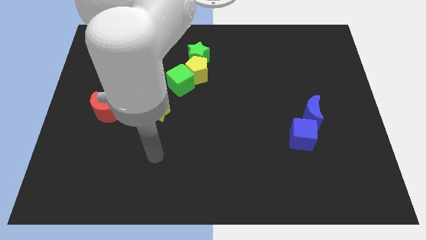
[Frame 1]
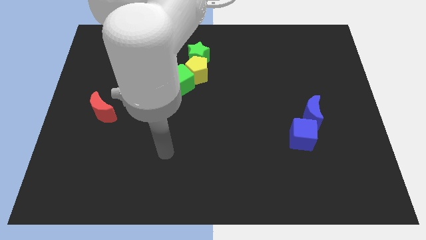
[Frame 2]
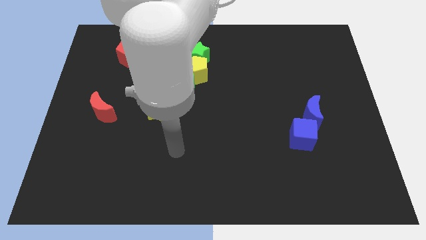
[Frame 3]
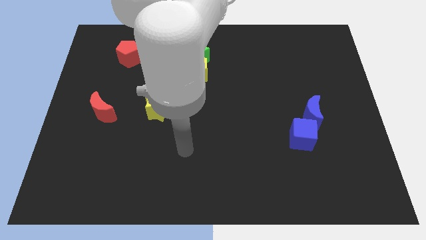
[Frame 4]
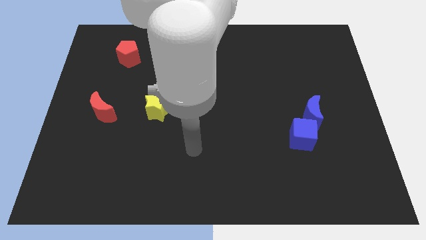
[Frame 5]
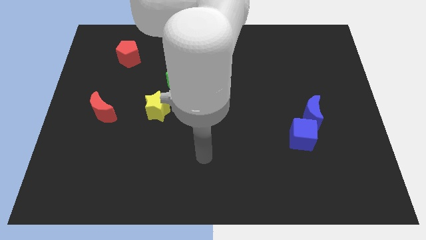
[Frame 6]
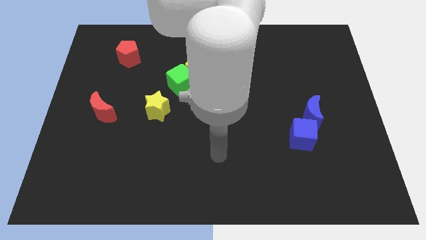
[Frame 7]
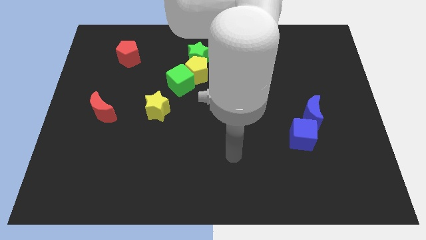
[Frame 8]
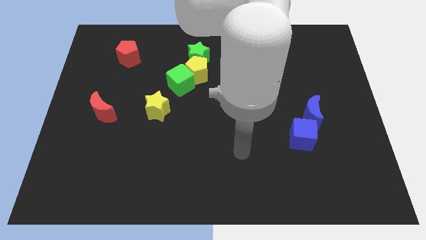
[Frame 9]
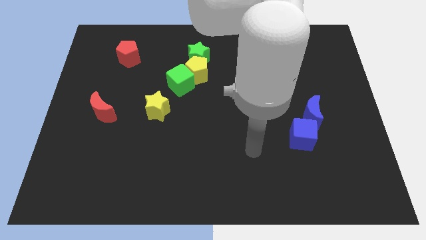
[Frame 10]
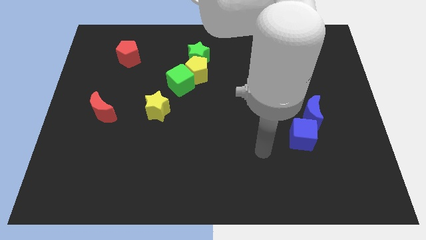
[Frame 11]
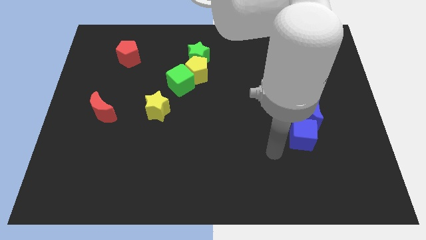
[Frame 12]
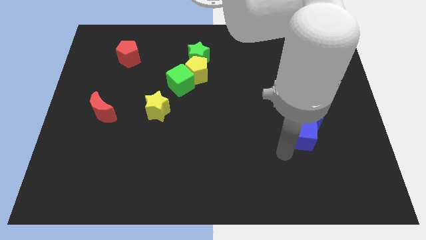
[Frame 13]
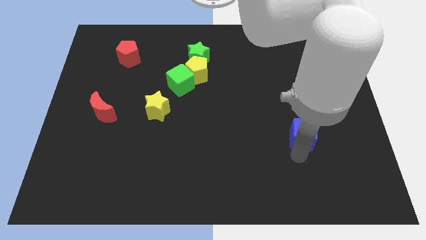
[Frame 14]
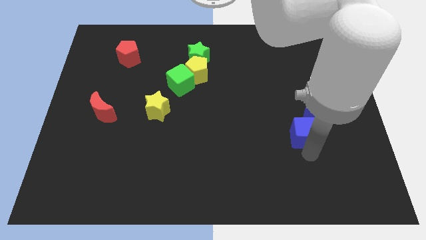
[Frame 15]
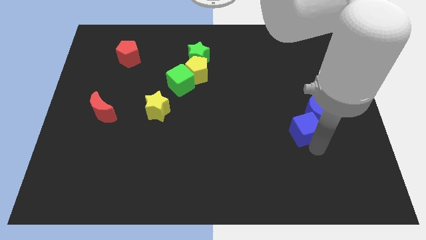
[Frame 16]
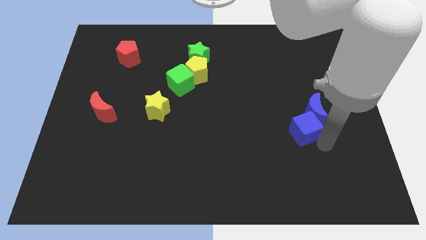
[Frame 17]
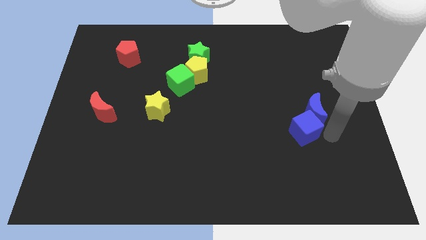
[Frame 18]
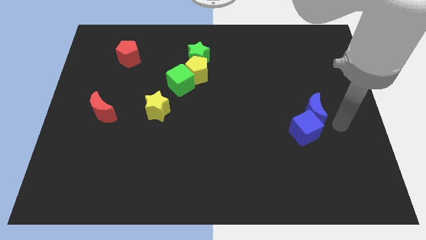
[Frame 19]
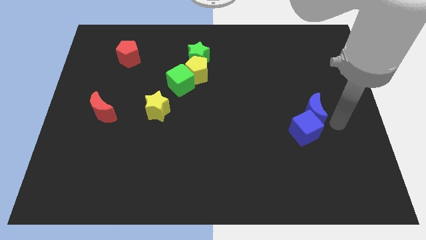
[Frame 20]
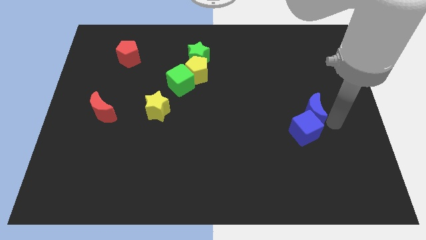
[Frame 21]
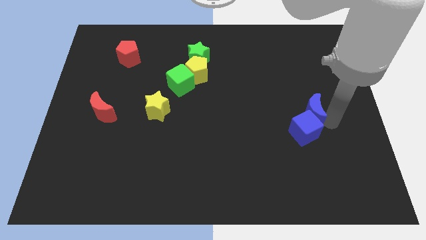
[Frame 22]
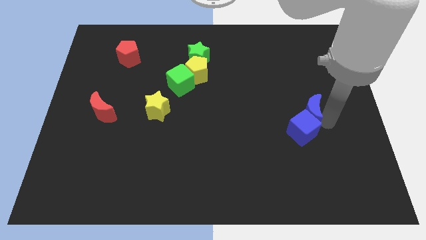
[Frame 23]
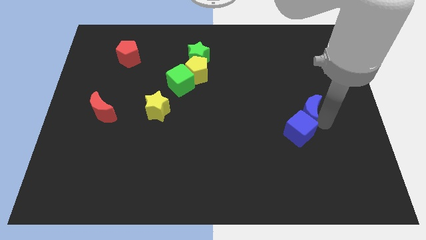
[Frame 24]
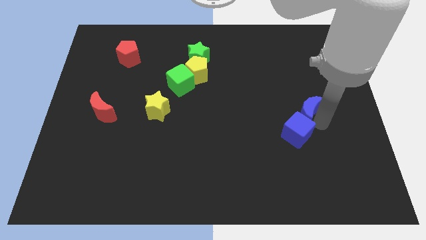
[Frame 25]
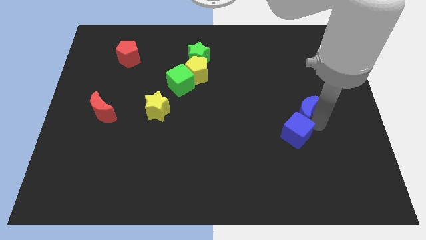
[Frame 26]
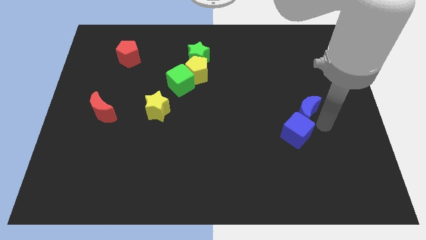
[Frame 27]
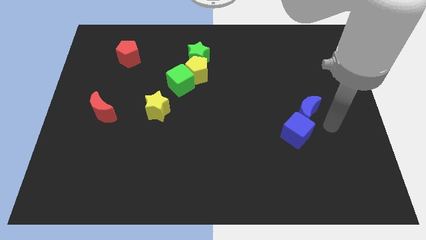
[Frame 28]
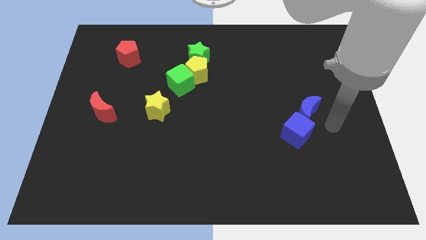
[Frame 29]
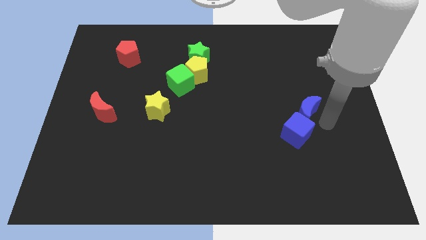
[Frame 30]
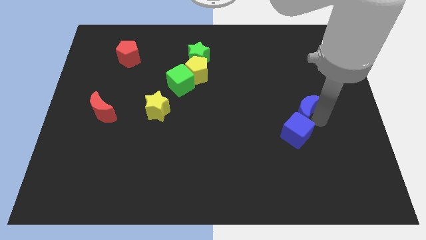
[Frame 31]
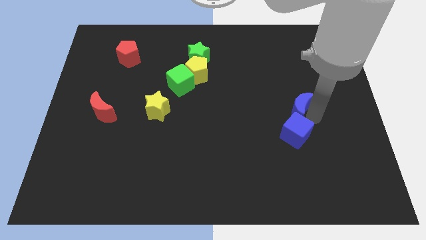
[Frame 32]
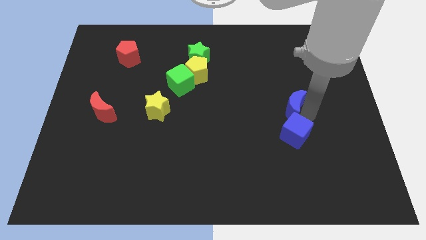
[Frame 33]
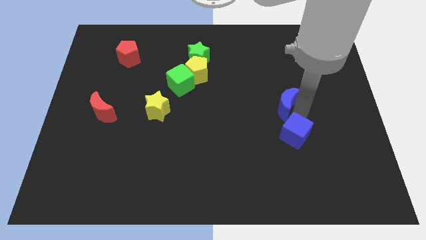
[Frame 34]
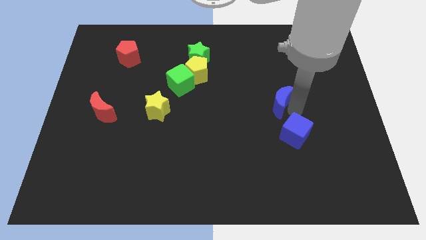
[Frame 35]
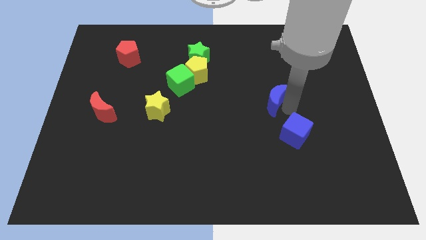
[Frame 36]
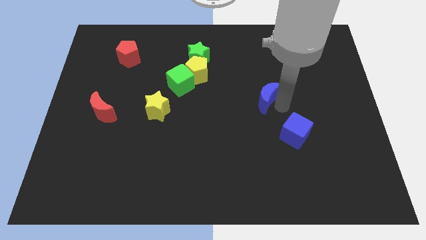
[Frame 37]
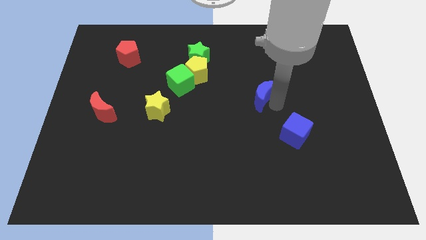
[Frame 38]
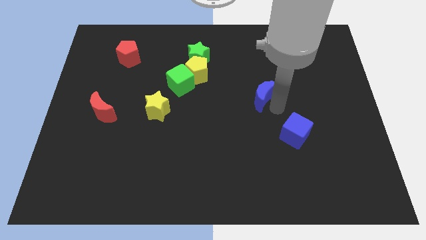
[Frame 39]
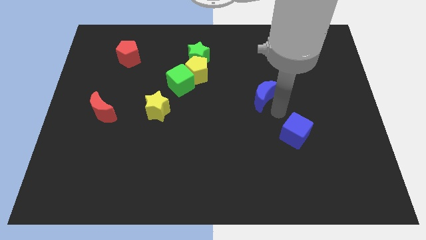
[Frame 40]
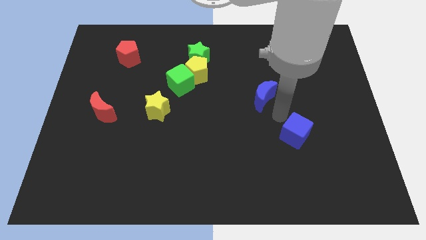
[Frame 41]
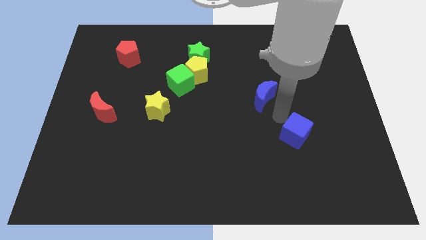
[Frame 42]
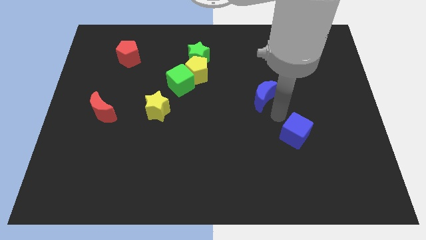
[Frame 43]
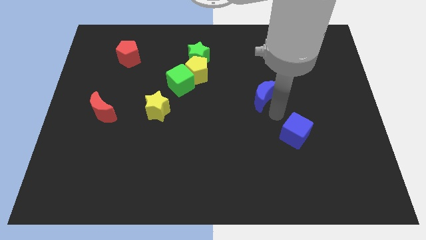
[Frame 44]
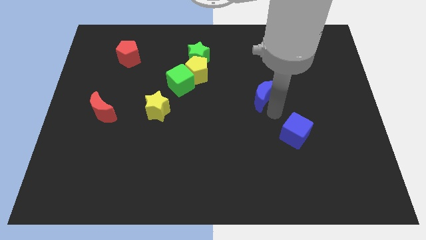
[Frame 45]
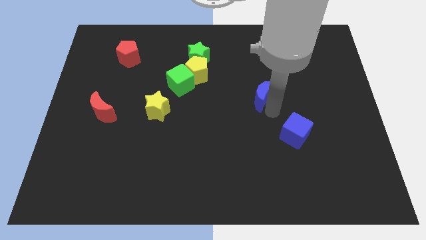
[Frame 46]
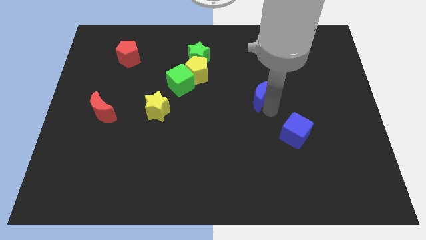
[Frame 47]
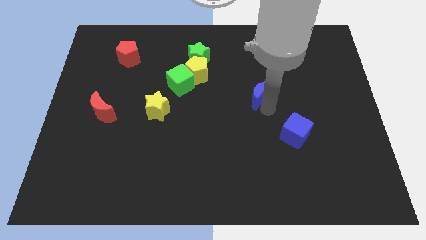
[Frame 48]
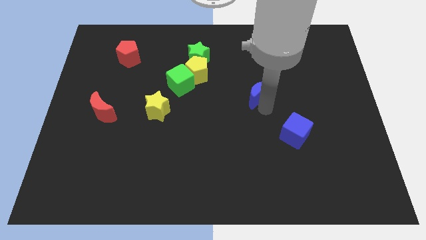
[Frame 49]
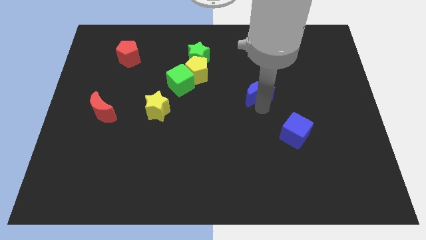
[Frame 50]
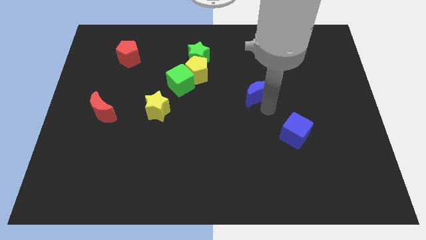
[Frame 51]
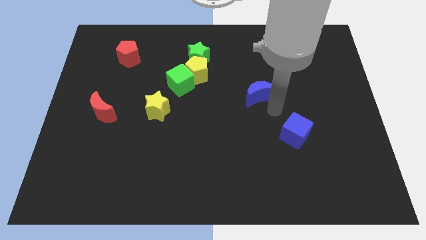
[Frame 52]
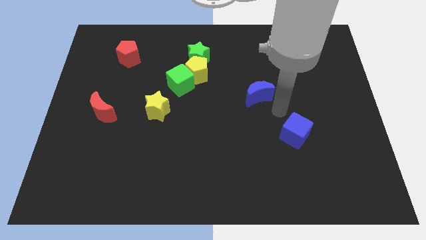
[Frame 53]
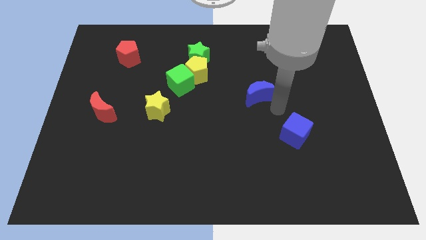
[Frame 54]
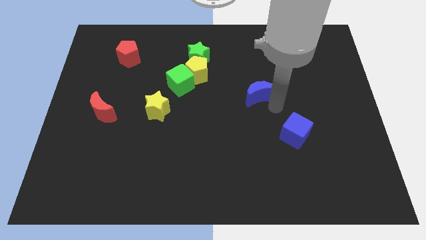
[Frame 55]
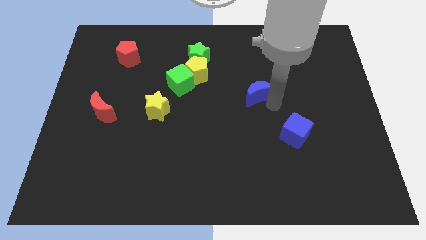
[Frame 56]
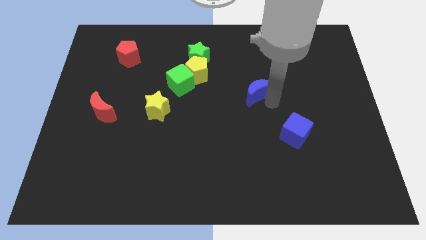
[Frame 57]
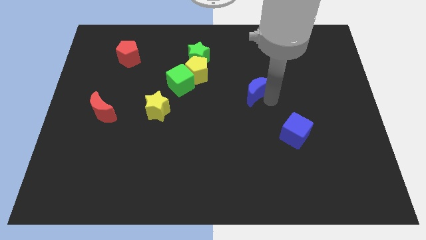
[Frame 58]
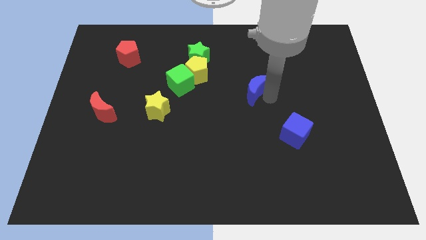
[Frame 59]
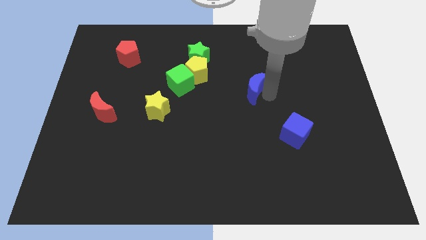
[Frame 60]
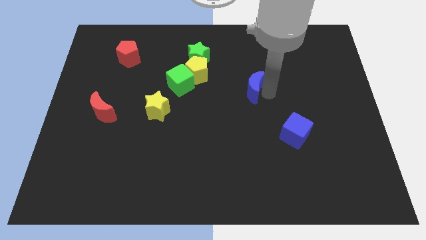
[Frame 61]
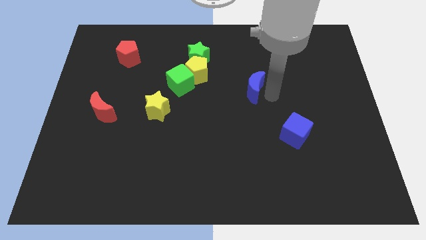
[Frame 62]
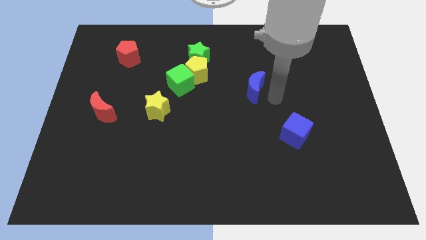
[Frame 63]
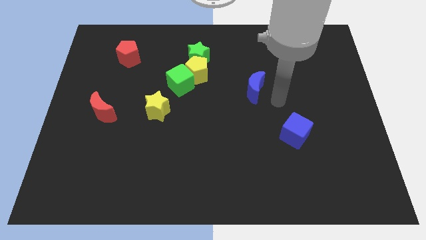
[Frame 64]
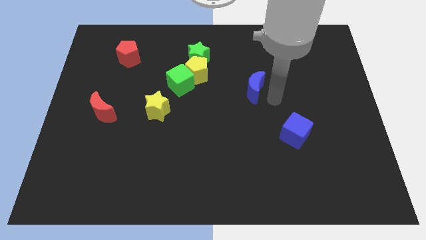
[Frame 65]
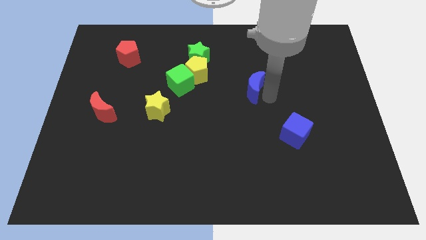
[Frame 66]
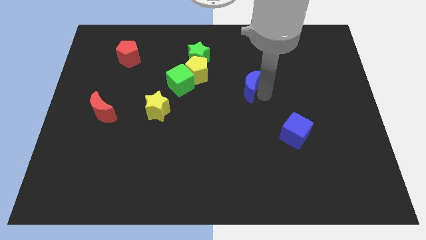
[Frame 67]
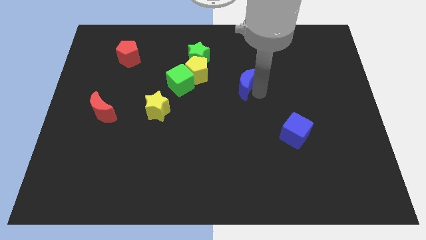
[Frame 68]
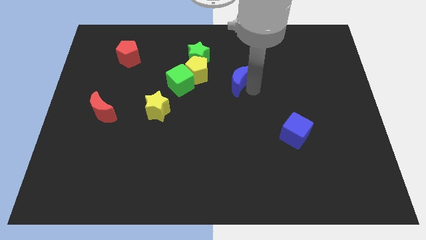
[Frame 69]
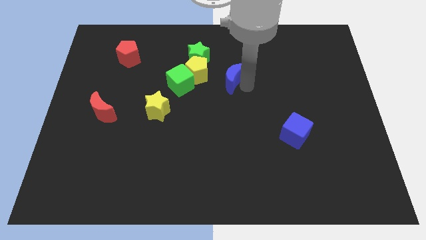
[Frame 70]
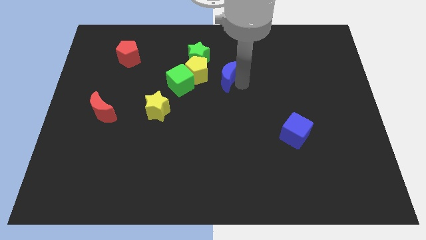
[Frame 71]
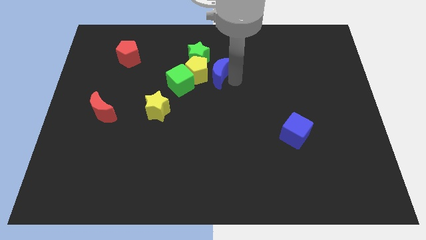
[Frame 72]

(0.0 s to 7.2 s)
push the blue moon next to the yellow pentagon

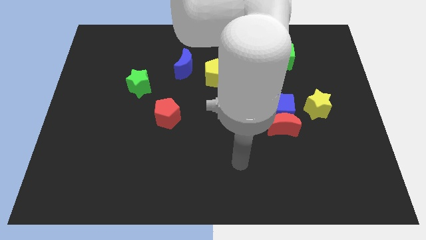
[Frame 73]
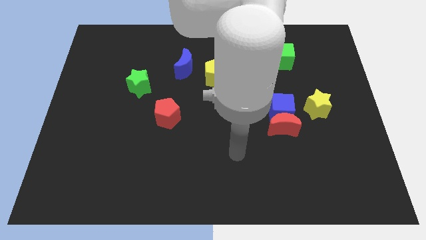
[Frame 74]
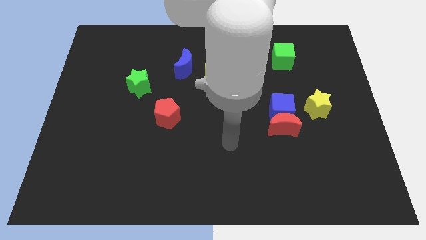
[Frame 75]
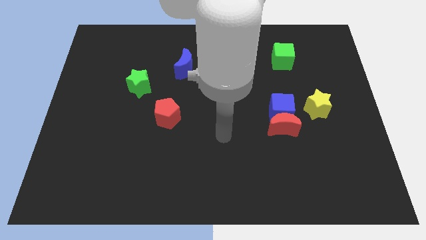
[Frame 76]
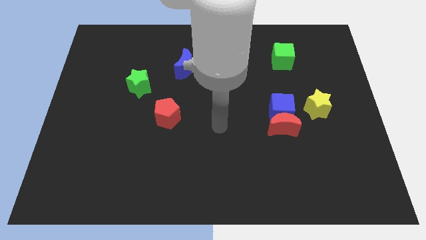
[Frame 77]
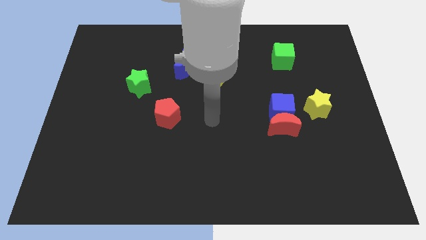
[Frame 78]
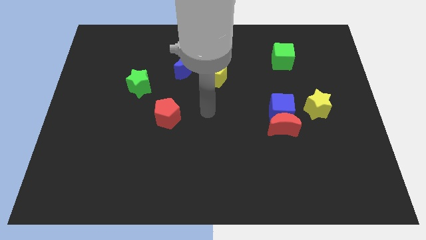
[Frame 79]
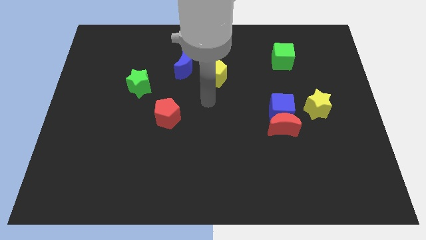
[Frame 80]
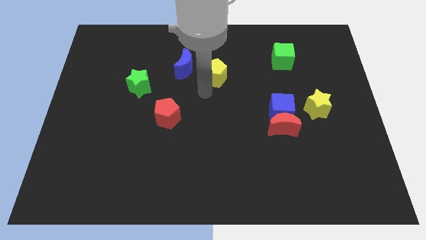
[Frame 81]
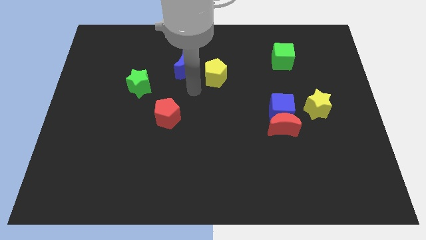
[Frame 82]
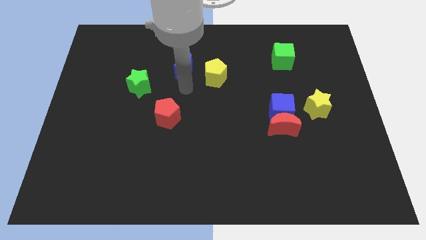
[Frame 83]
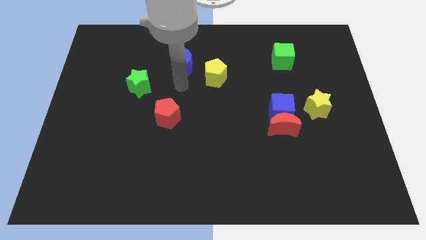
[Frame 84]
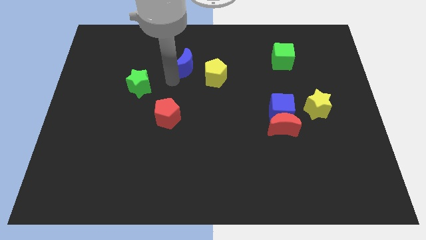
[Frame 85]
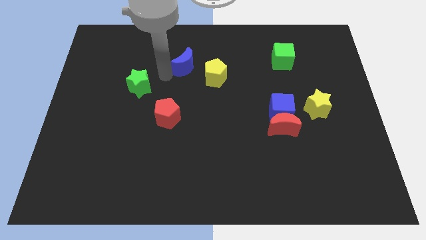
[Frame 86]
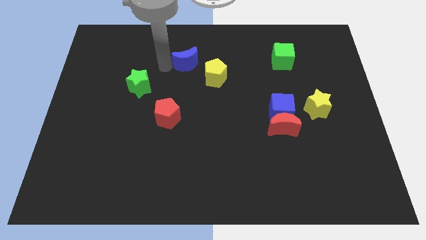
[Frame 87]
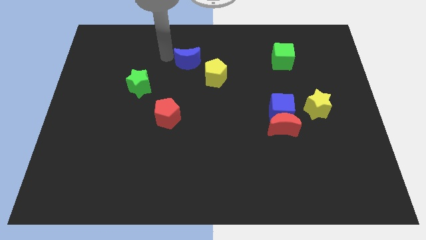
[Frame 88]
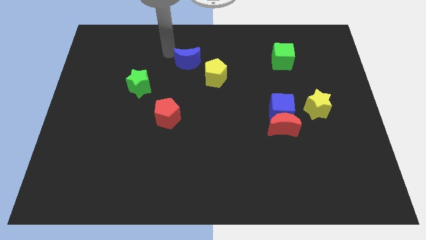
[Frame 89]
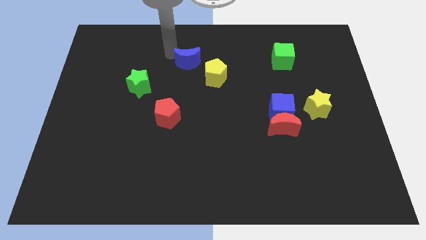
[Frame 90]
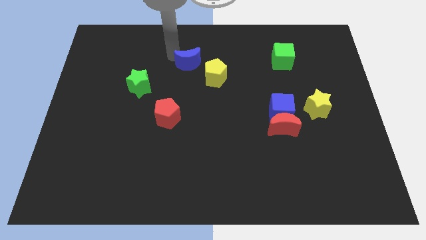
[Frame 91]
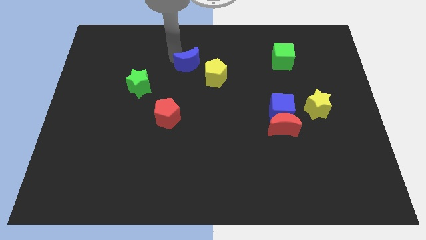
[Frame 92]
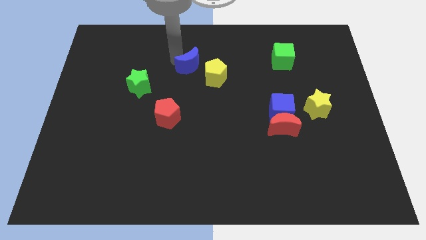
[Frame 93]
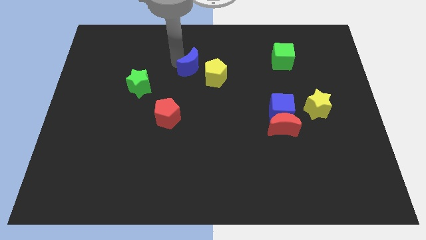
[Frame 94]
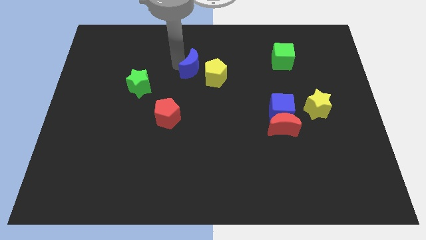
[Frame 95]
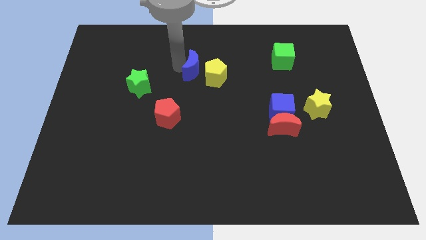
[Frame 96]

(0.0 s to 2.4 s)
slide the blue moon to the yellow pentagon
